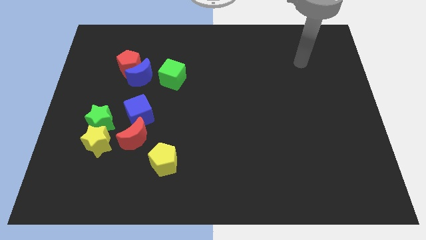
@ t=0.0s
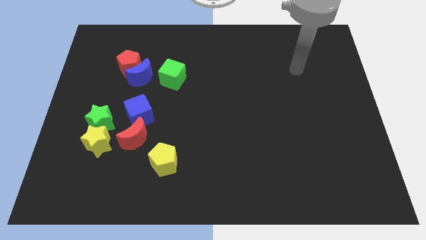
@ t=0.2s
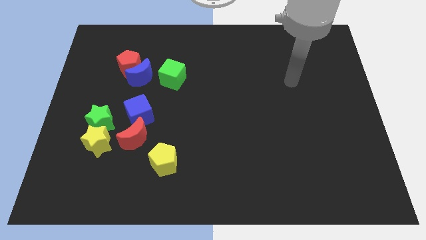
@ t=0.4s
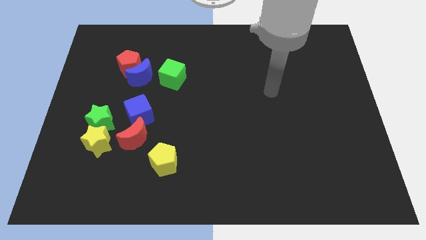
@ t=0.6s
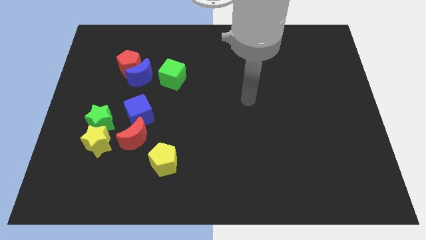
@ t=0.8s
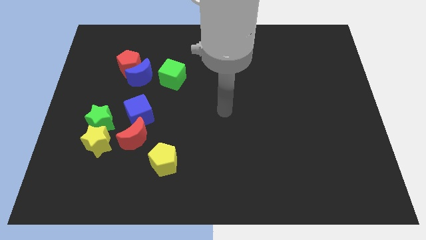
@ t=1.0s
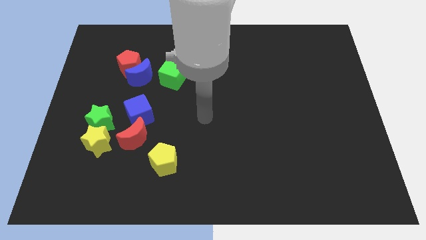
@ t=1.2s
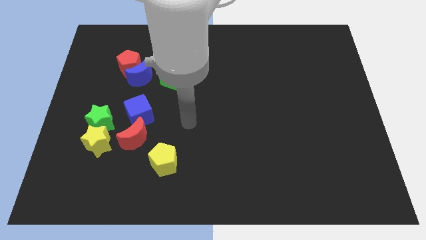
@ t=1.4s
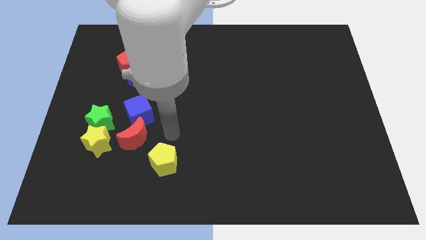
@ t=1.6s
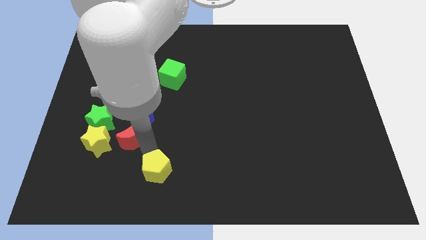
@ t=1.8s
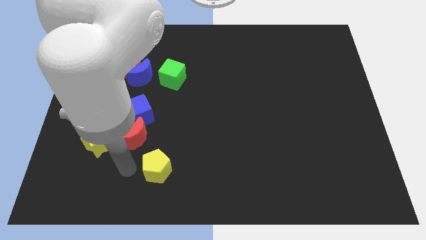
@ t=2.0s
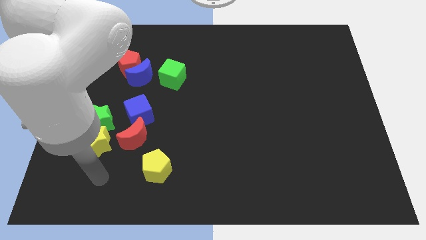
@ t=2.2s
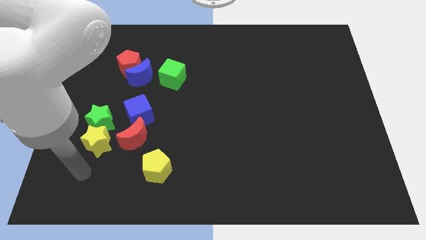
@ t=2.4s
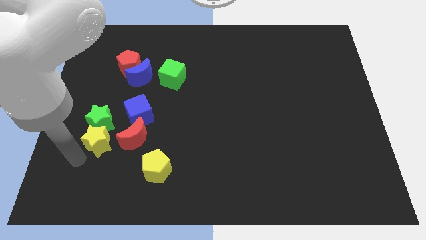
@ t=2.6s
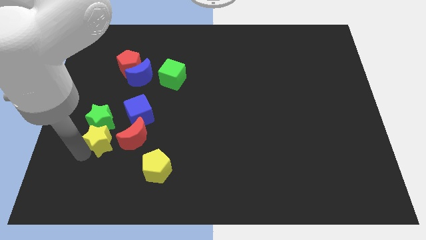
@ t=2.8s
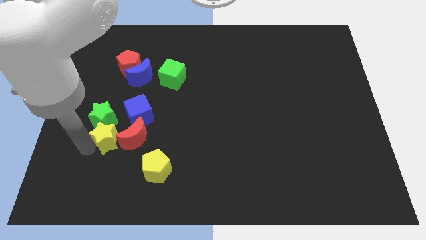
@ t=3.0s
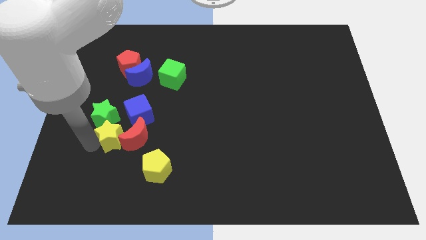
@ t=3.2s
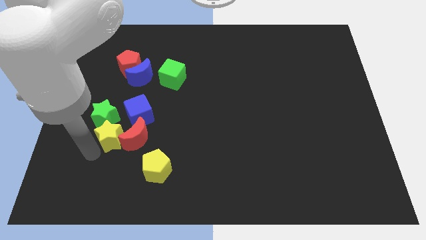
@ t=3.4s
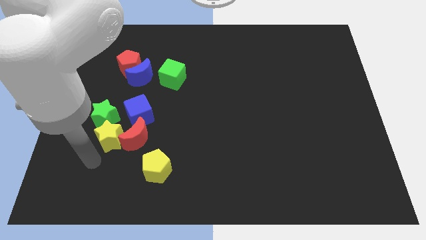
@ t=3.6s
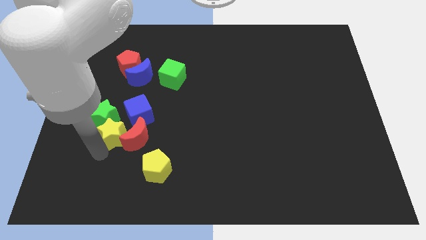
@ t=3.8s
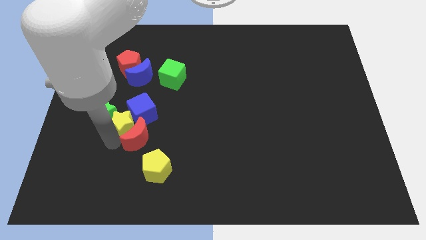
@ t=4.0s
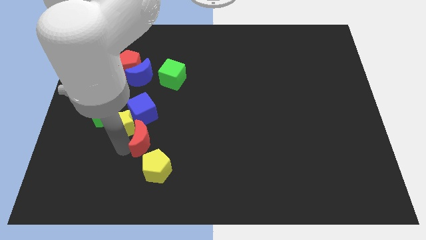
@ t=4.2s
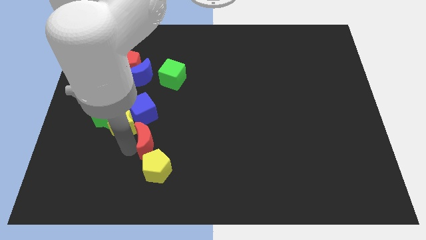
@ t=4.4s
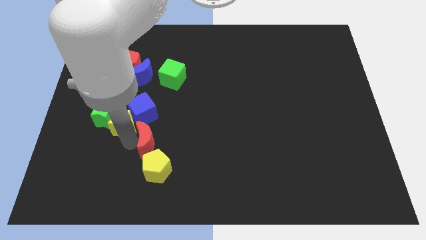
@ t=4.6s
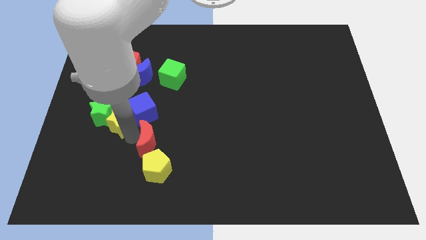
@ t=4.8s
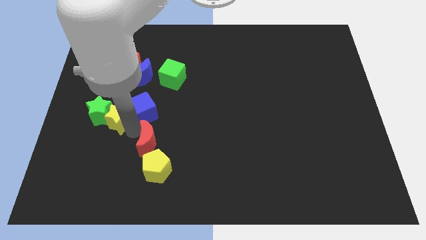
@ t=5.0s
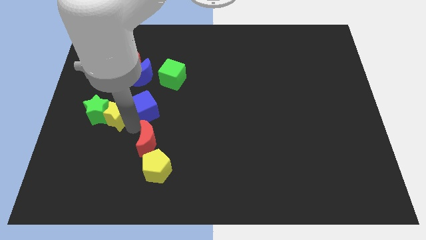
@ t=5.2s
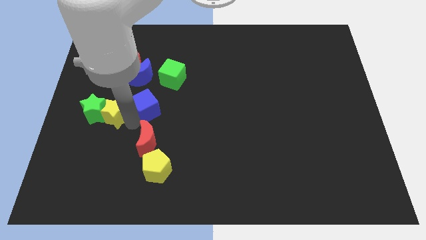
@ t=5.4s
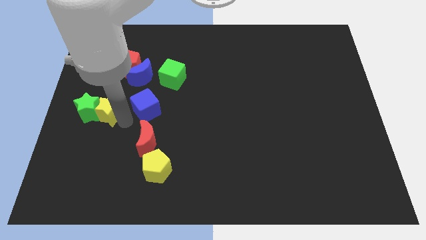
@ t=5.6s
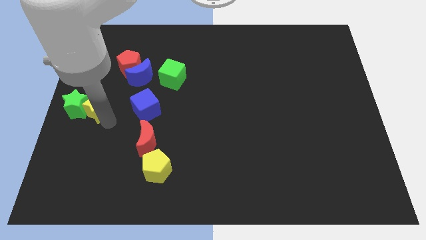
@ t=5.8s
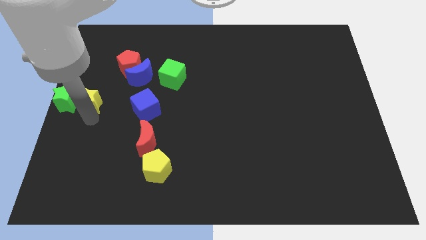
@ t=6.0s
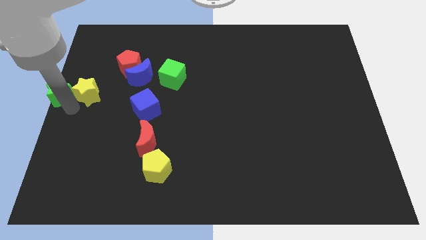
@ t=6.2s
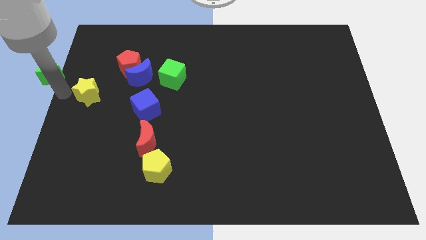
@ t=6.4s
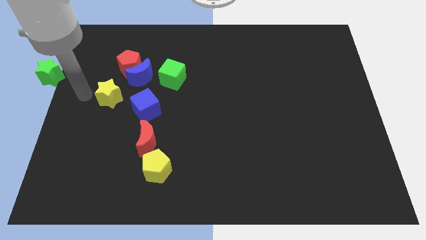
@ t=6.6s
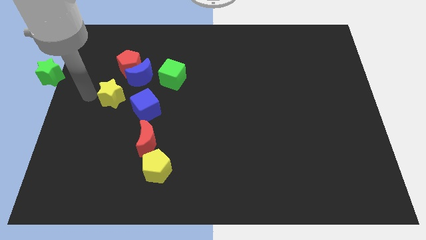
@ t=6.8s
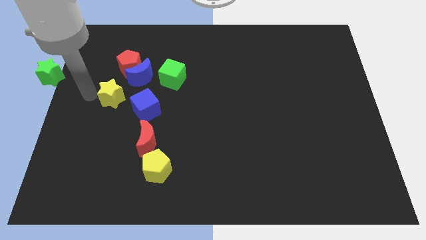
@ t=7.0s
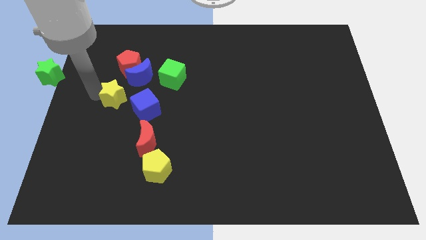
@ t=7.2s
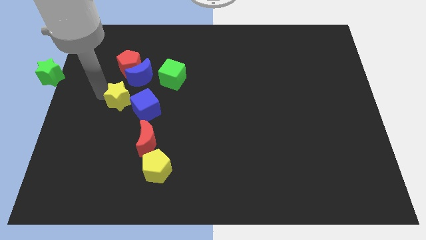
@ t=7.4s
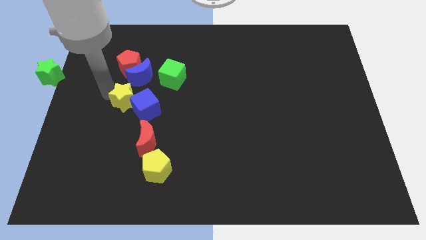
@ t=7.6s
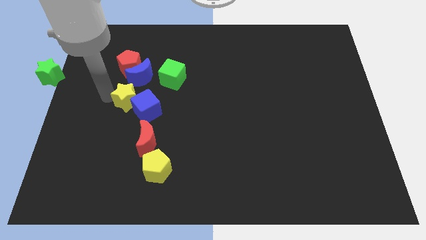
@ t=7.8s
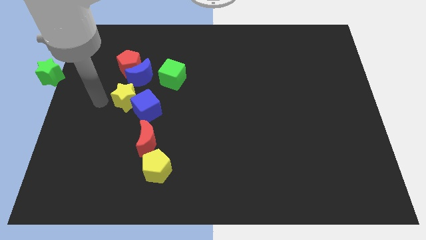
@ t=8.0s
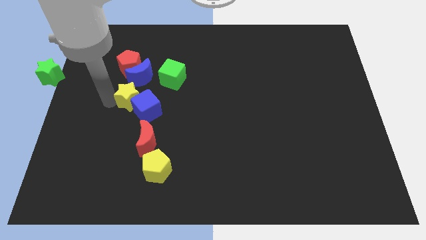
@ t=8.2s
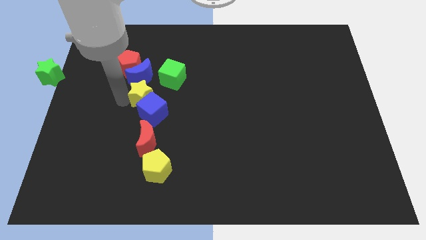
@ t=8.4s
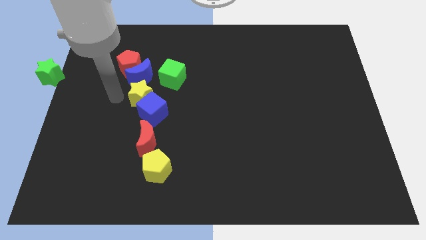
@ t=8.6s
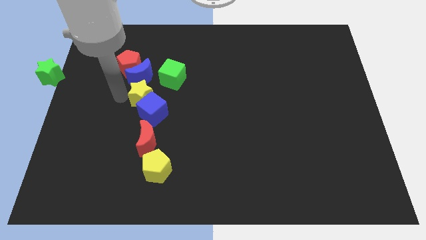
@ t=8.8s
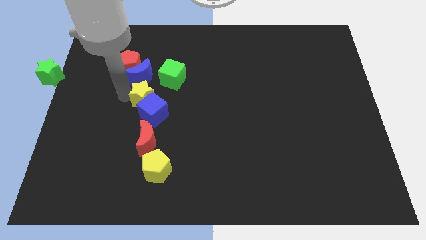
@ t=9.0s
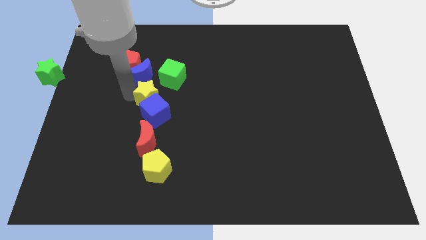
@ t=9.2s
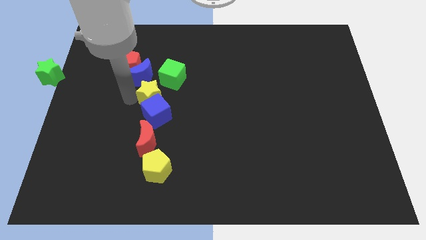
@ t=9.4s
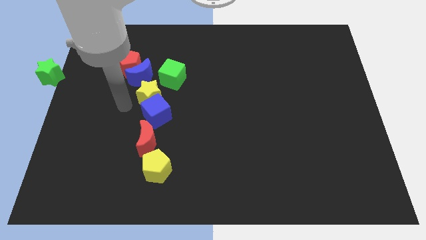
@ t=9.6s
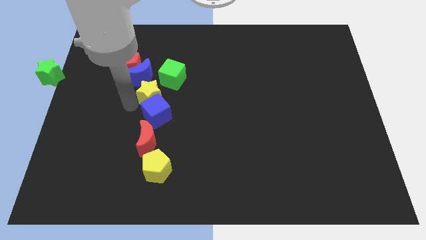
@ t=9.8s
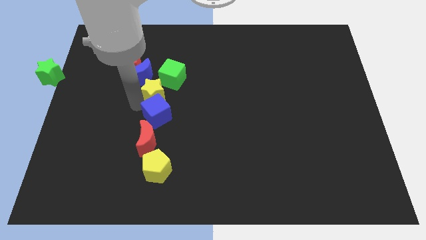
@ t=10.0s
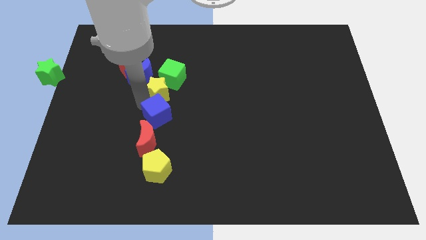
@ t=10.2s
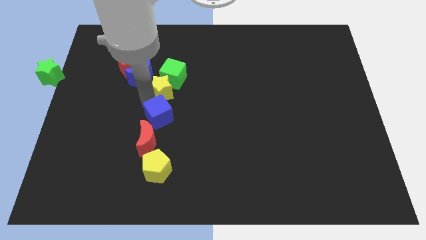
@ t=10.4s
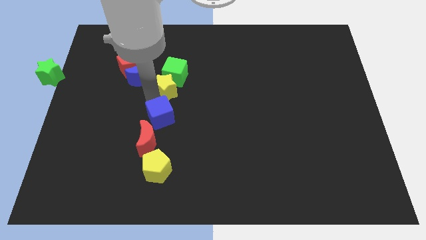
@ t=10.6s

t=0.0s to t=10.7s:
slide the yellow star up and then right

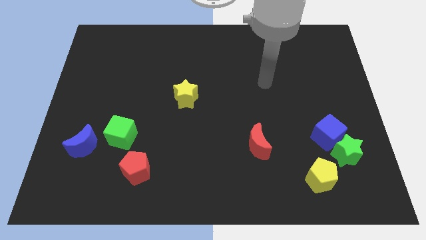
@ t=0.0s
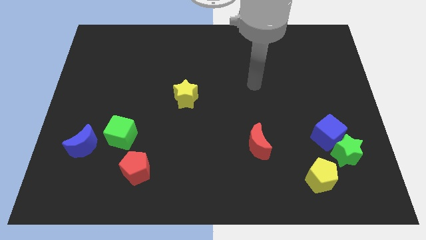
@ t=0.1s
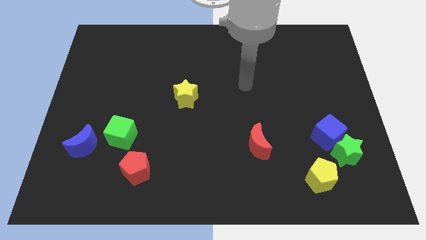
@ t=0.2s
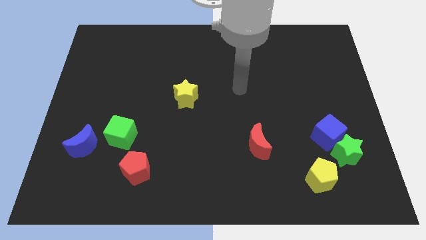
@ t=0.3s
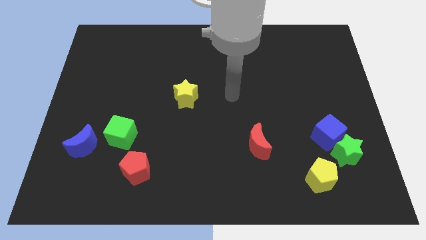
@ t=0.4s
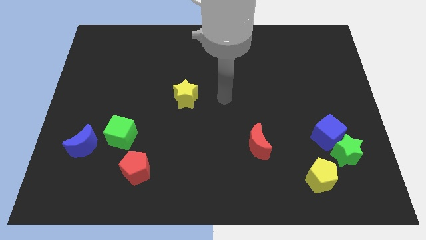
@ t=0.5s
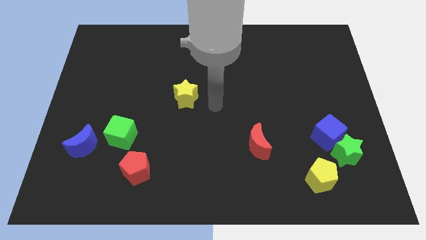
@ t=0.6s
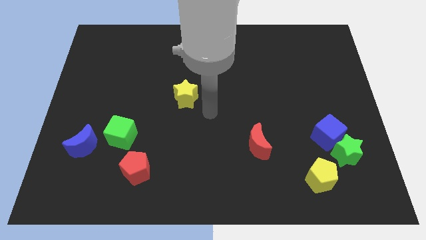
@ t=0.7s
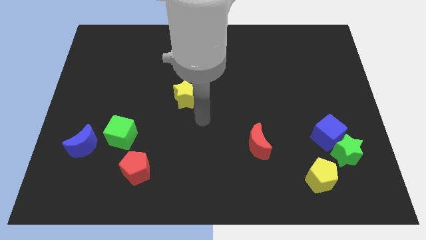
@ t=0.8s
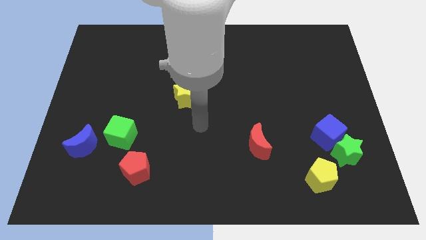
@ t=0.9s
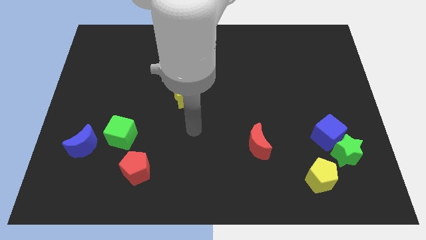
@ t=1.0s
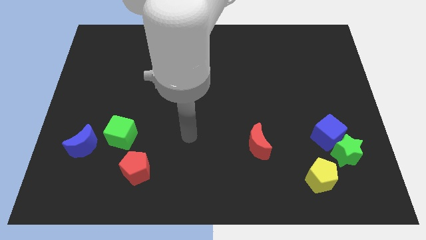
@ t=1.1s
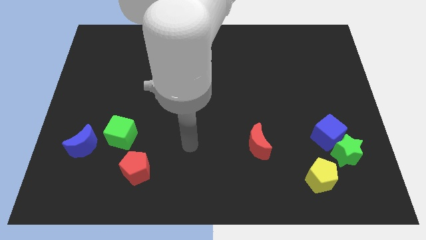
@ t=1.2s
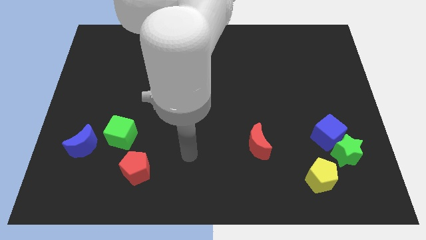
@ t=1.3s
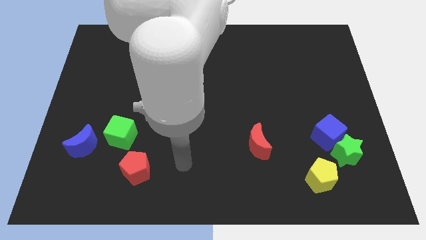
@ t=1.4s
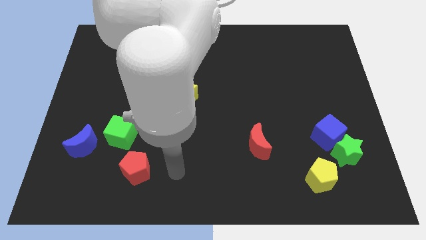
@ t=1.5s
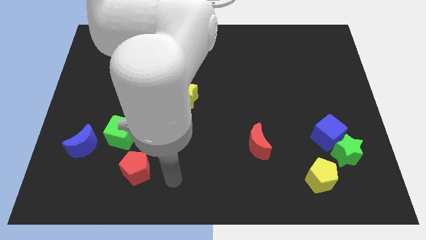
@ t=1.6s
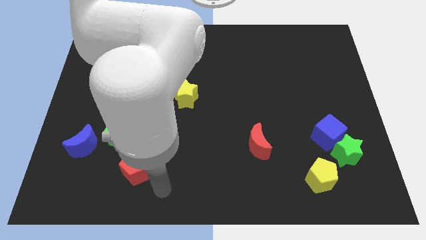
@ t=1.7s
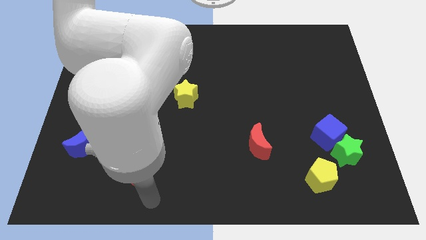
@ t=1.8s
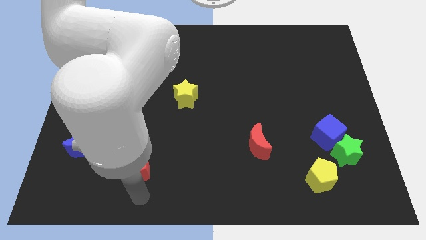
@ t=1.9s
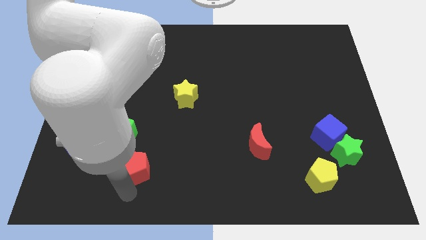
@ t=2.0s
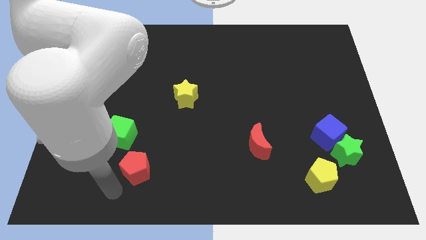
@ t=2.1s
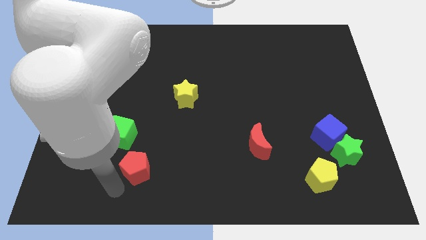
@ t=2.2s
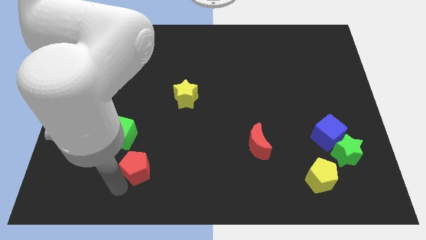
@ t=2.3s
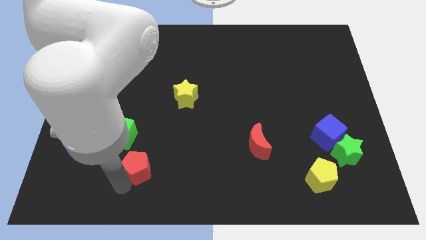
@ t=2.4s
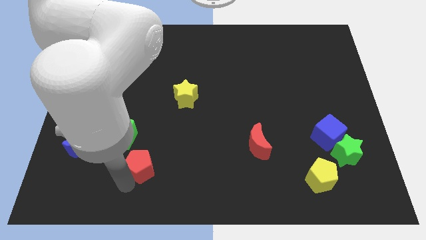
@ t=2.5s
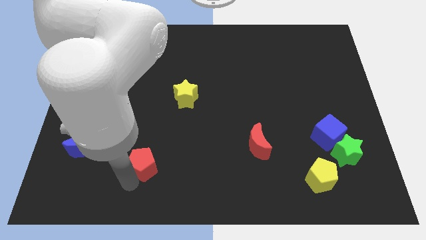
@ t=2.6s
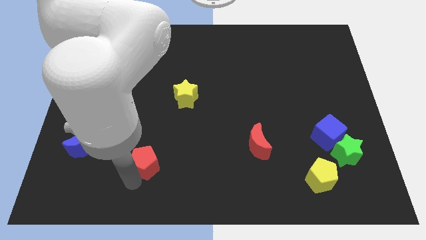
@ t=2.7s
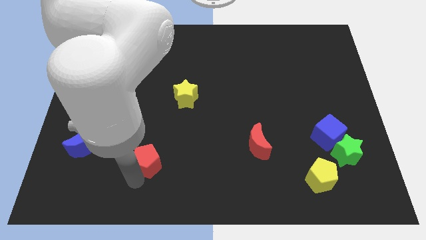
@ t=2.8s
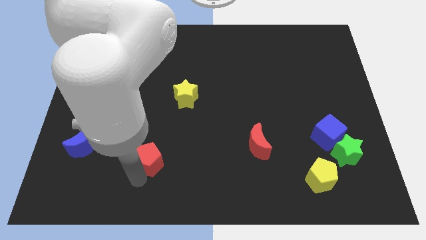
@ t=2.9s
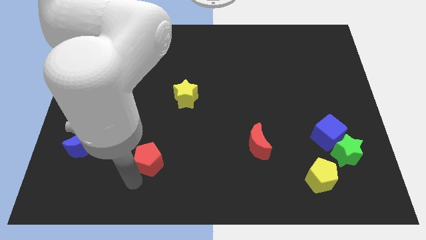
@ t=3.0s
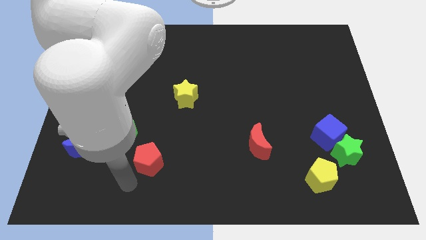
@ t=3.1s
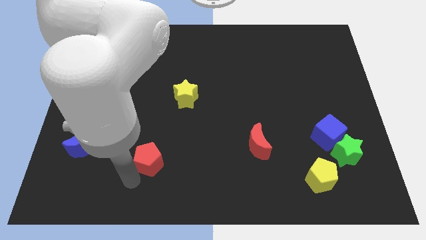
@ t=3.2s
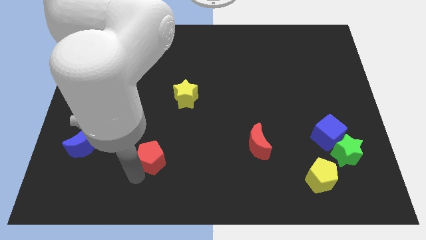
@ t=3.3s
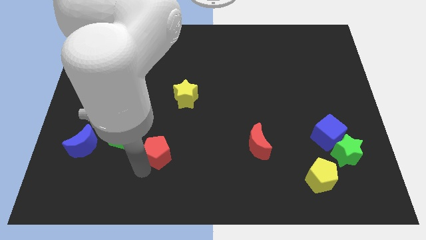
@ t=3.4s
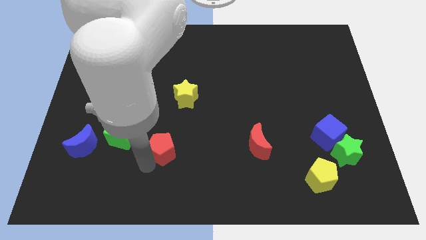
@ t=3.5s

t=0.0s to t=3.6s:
push the red pentagon upwards and then right a bit
